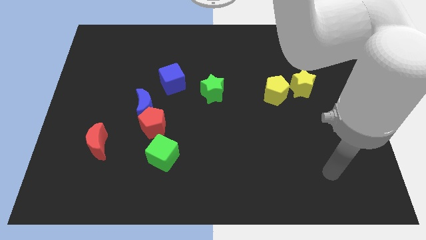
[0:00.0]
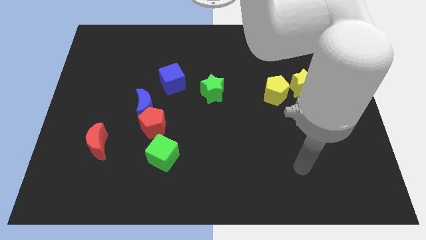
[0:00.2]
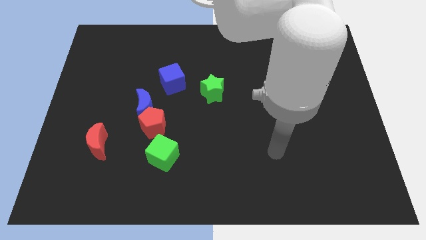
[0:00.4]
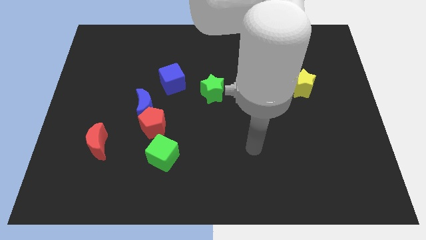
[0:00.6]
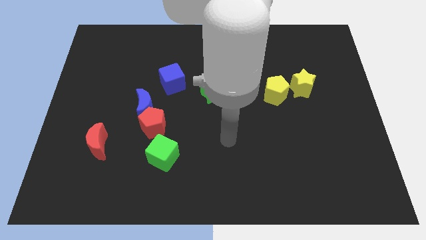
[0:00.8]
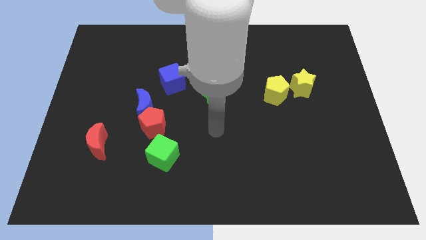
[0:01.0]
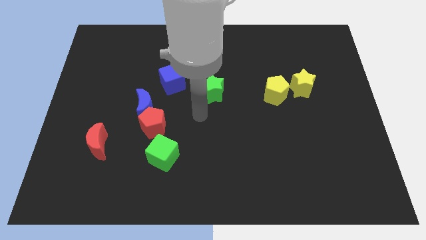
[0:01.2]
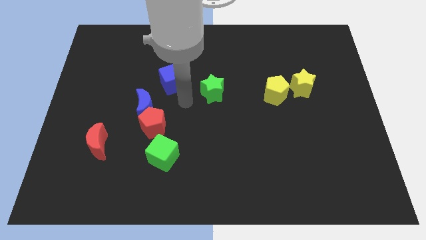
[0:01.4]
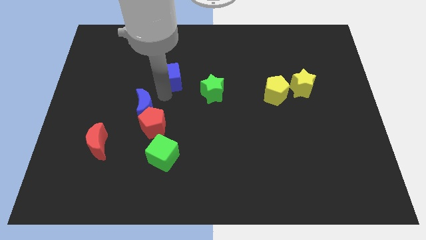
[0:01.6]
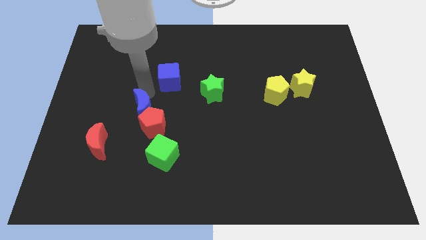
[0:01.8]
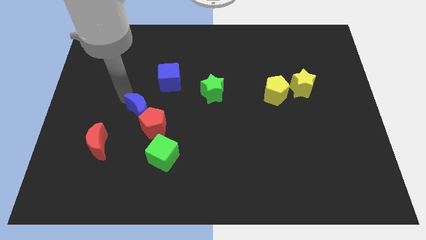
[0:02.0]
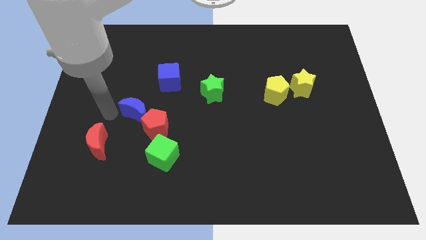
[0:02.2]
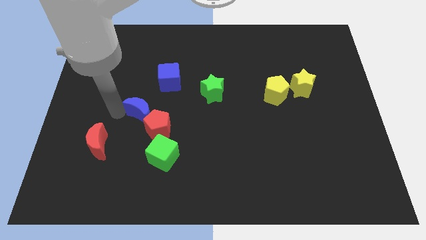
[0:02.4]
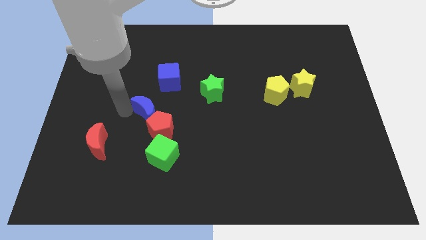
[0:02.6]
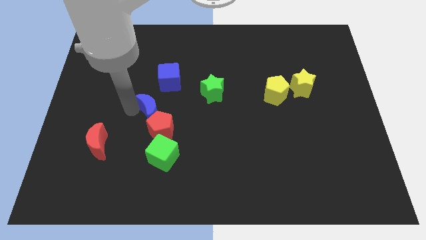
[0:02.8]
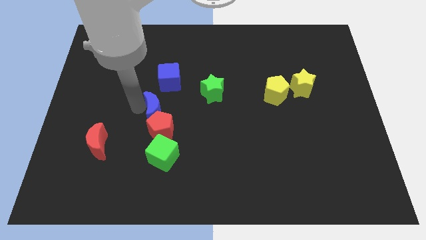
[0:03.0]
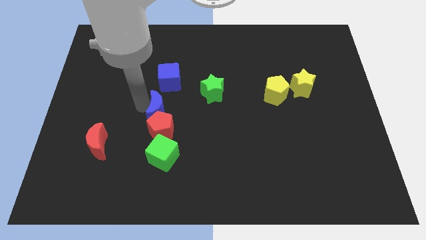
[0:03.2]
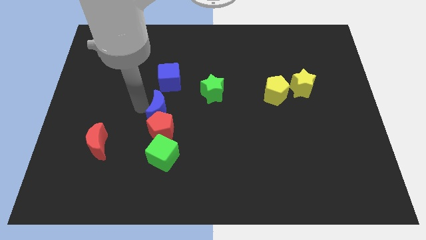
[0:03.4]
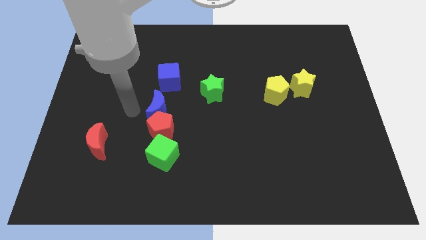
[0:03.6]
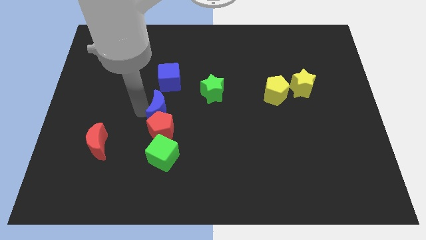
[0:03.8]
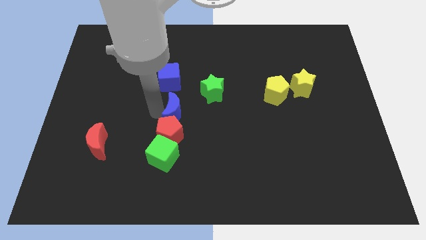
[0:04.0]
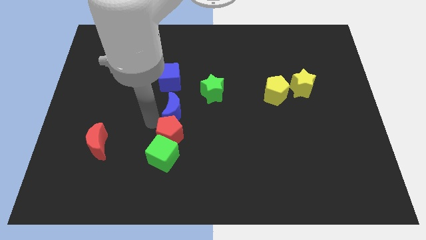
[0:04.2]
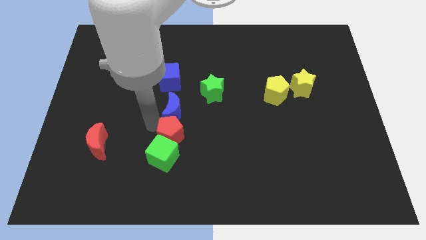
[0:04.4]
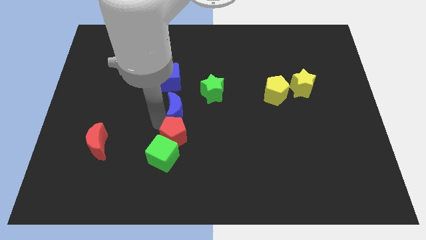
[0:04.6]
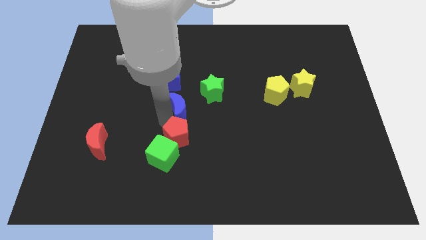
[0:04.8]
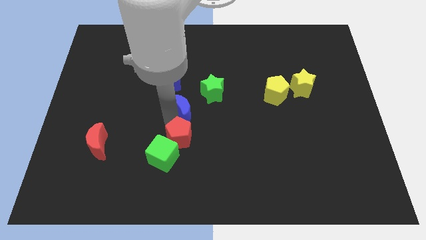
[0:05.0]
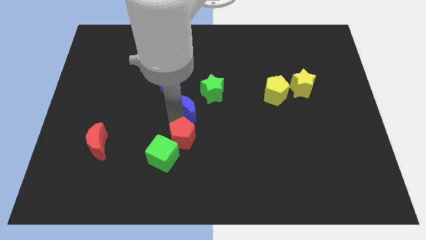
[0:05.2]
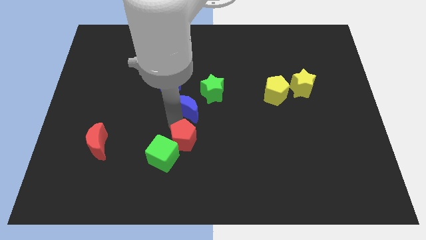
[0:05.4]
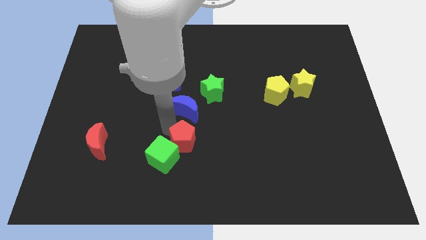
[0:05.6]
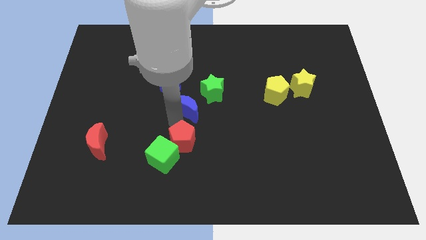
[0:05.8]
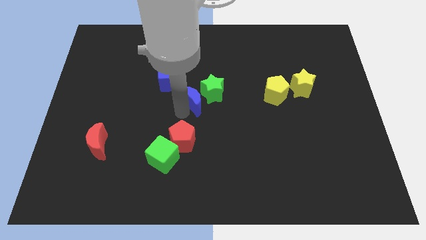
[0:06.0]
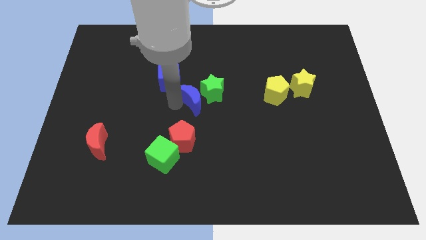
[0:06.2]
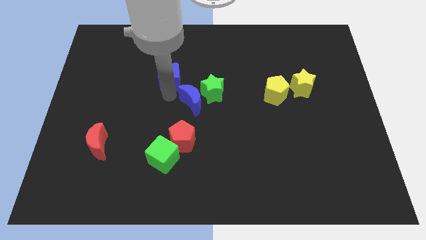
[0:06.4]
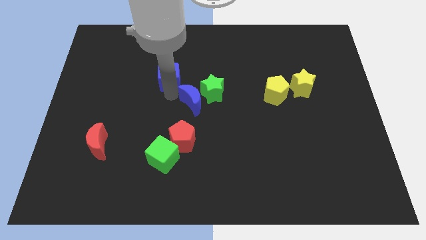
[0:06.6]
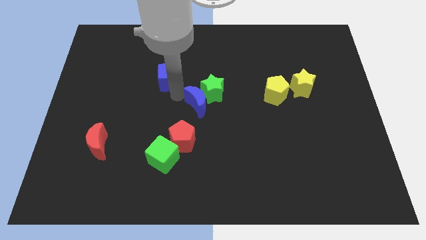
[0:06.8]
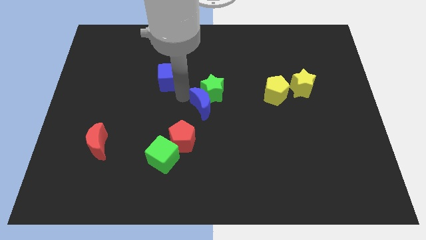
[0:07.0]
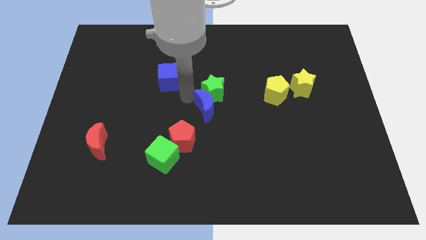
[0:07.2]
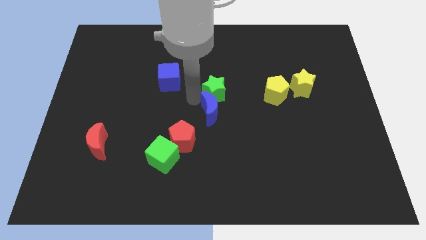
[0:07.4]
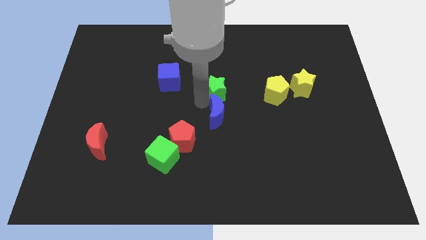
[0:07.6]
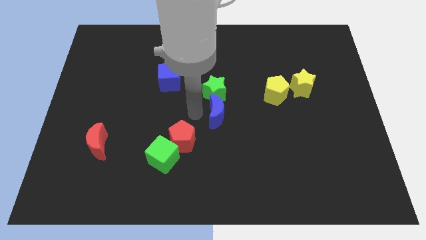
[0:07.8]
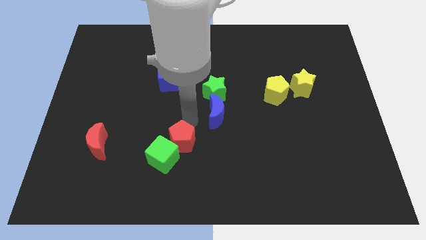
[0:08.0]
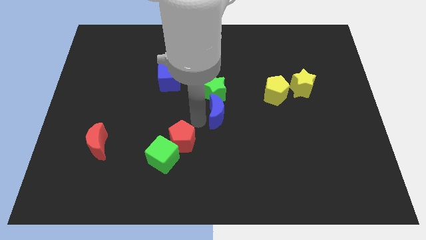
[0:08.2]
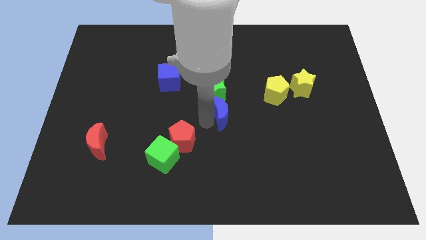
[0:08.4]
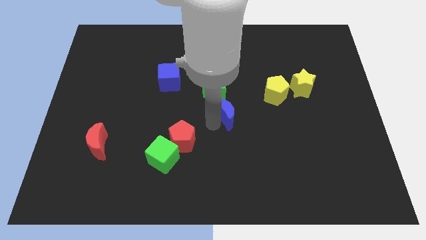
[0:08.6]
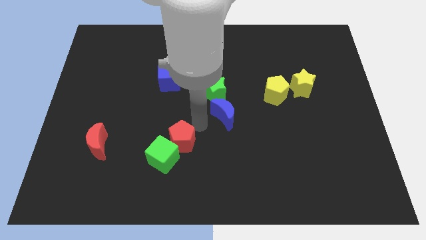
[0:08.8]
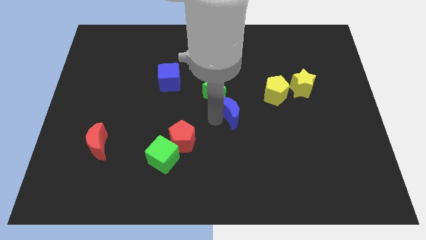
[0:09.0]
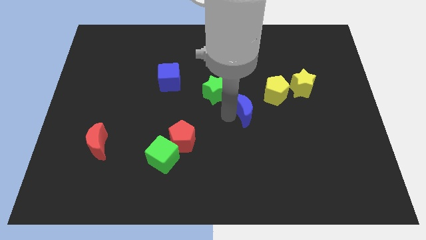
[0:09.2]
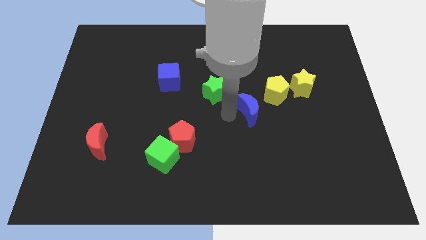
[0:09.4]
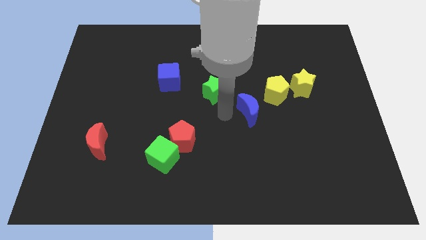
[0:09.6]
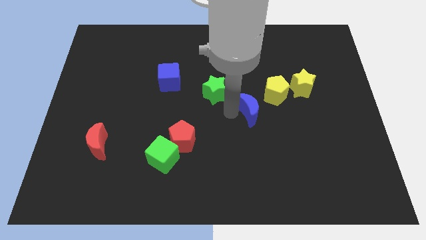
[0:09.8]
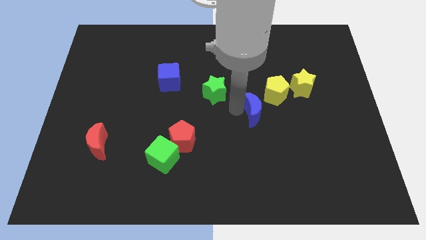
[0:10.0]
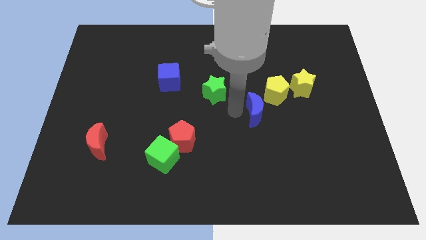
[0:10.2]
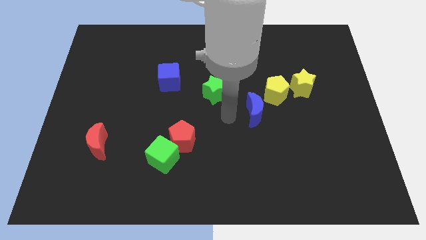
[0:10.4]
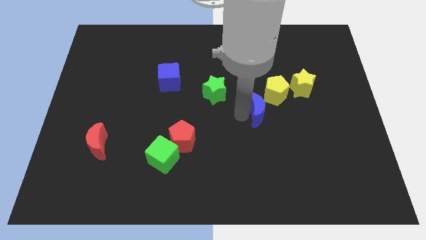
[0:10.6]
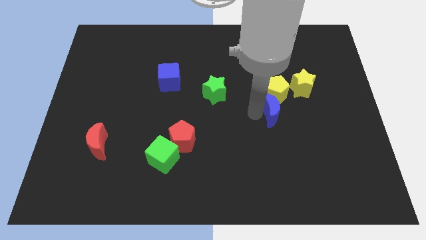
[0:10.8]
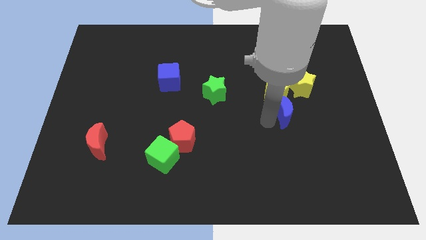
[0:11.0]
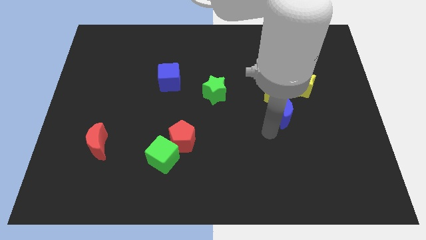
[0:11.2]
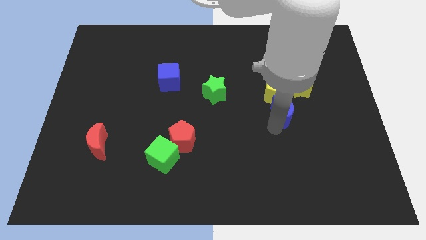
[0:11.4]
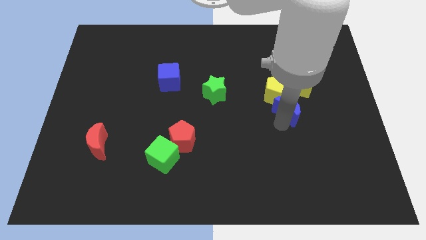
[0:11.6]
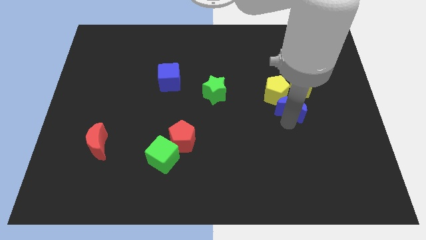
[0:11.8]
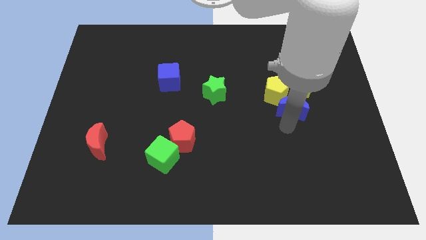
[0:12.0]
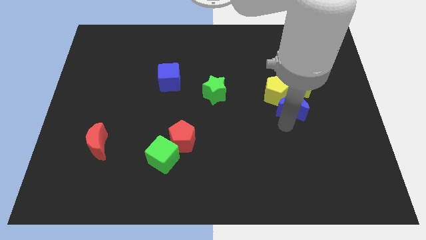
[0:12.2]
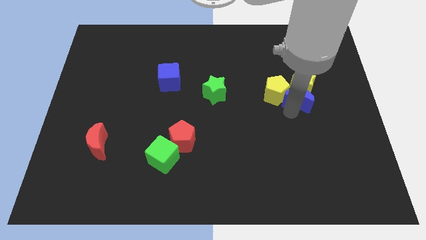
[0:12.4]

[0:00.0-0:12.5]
move the blue moon close to the yellow star
